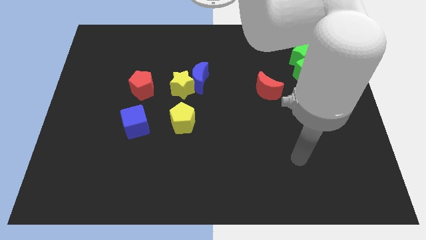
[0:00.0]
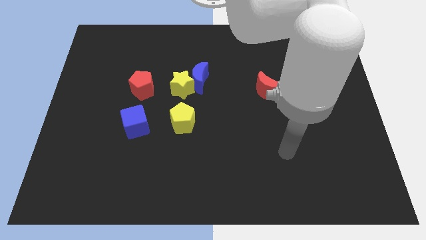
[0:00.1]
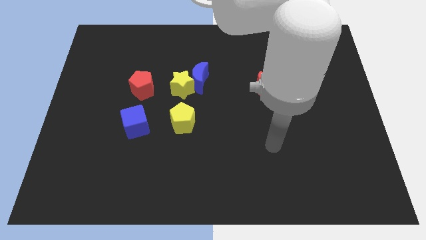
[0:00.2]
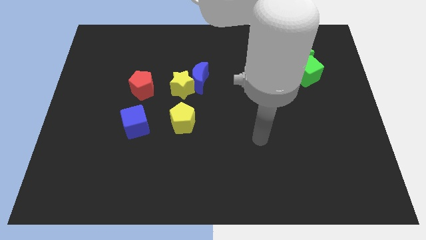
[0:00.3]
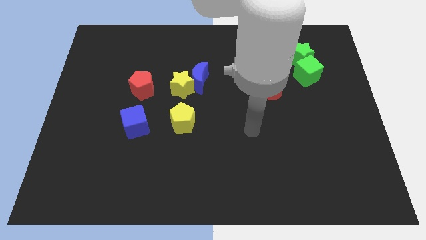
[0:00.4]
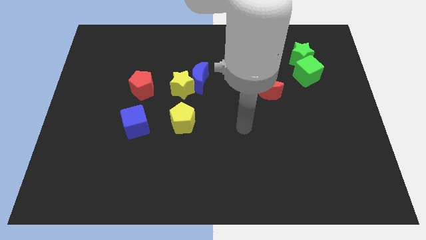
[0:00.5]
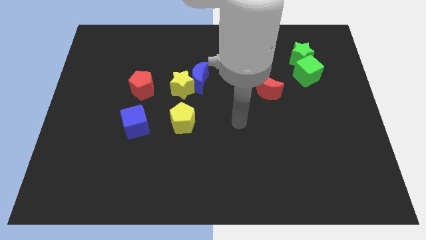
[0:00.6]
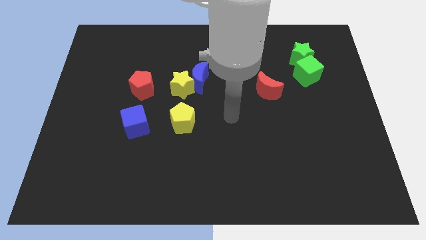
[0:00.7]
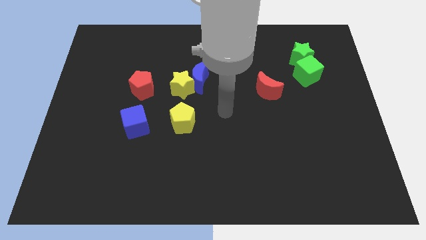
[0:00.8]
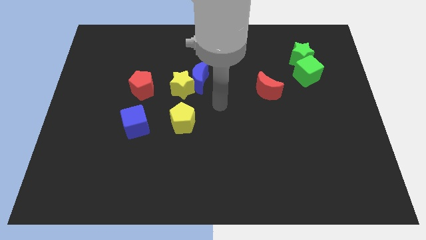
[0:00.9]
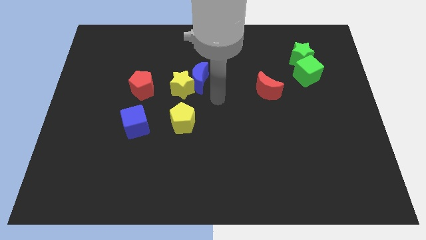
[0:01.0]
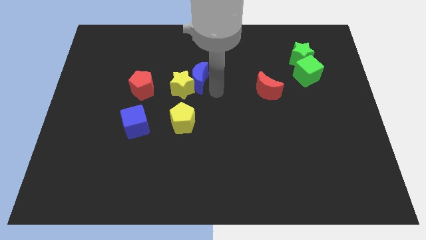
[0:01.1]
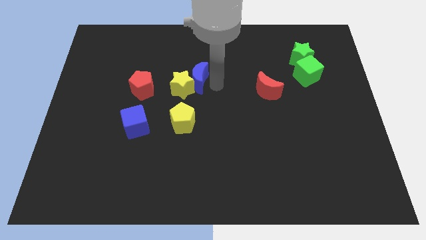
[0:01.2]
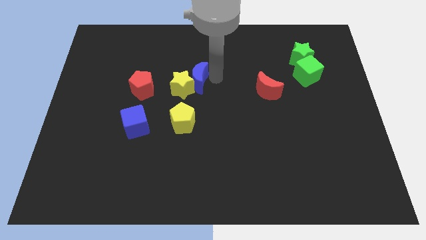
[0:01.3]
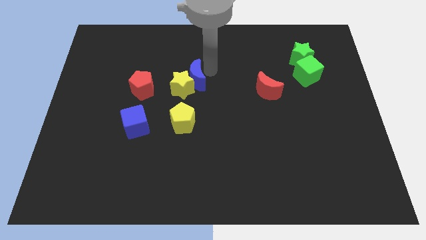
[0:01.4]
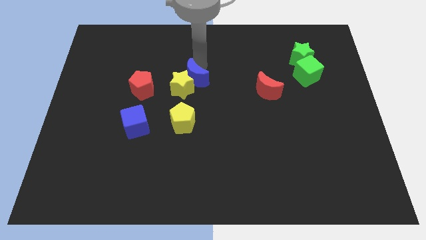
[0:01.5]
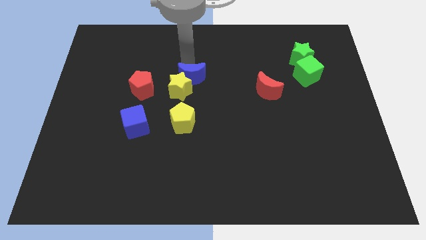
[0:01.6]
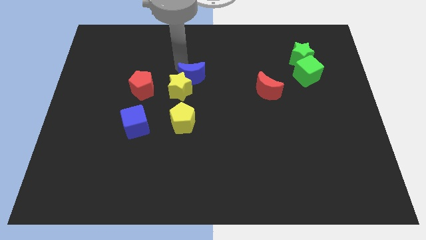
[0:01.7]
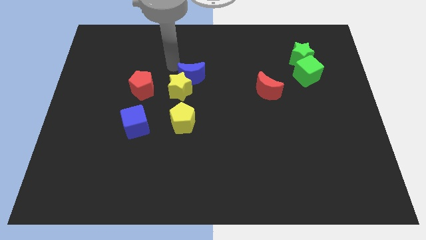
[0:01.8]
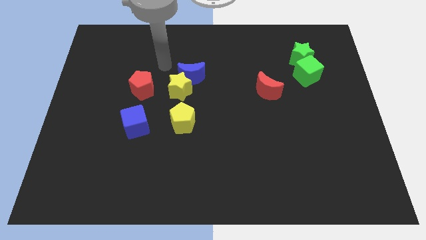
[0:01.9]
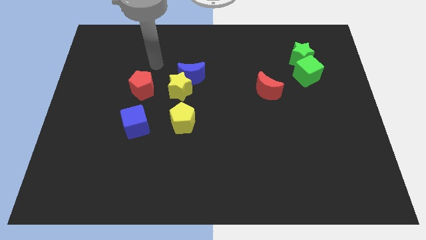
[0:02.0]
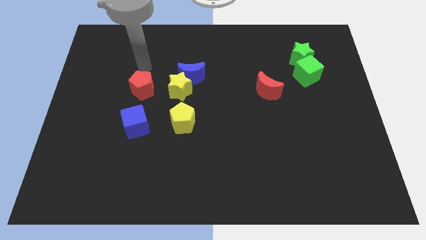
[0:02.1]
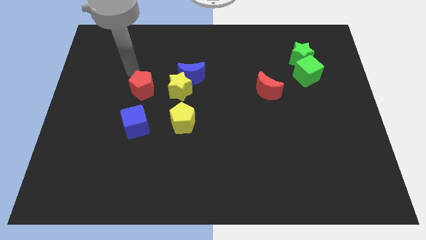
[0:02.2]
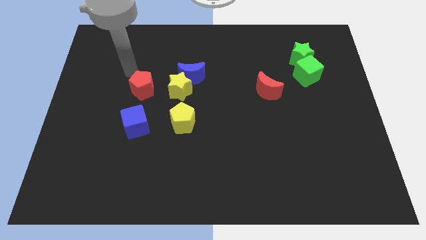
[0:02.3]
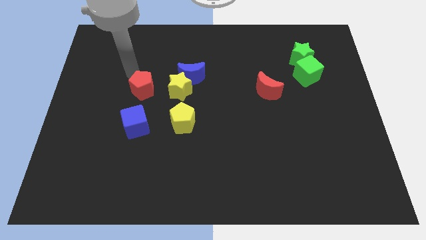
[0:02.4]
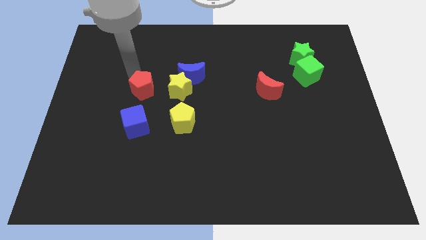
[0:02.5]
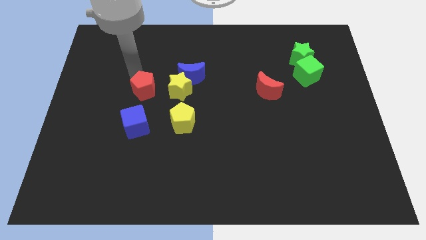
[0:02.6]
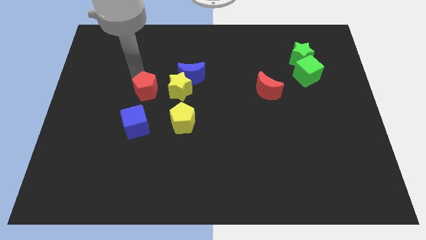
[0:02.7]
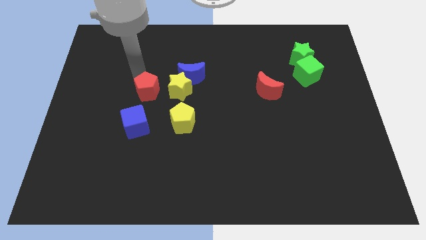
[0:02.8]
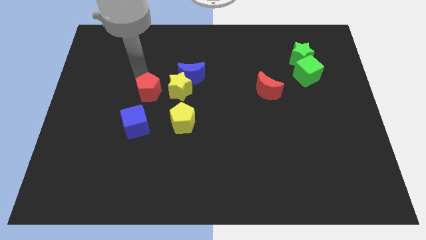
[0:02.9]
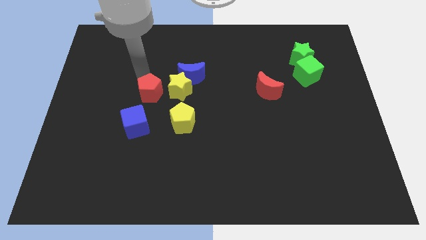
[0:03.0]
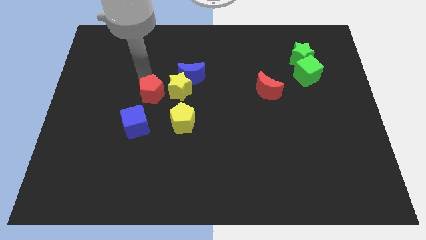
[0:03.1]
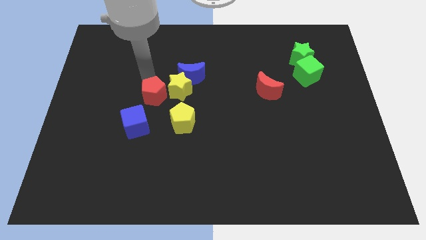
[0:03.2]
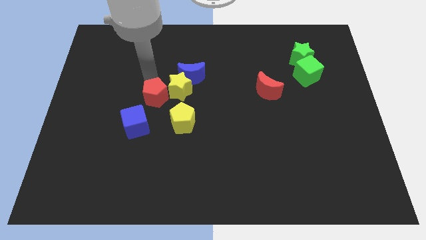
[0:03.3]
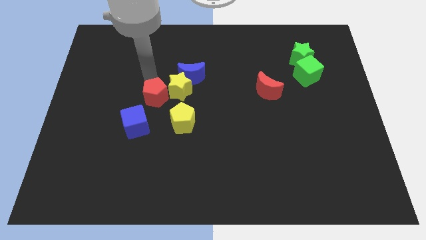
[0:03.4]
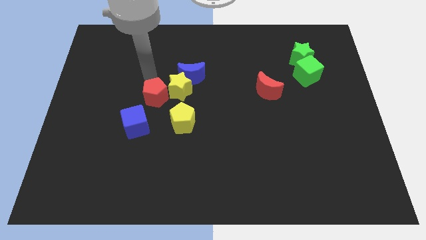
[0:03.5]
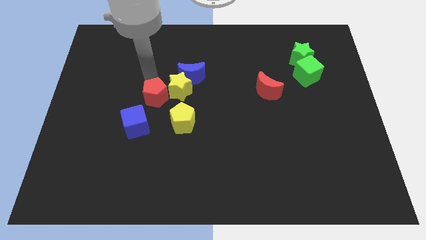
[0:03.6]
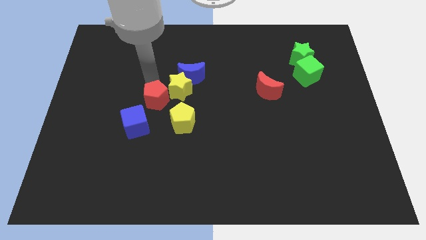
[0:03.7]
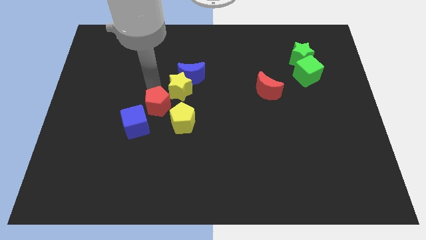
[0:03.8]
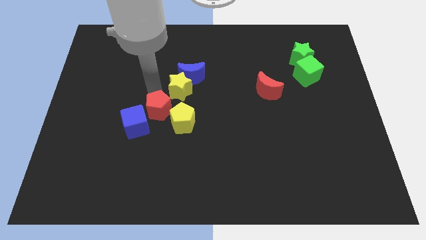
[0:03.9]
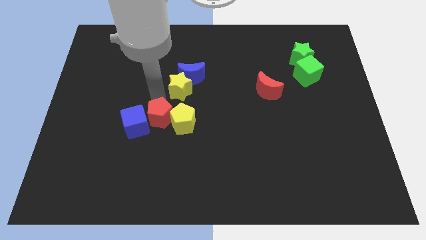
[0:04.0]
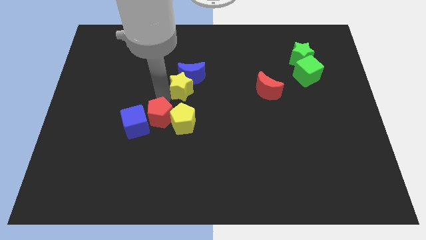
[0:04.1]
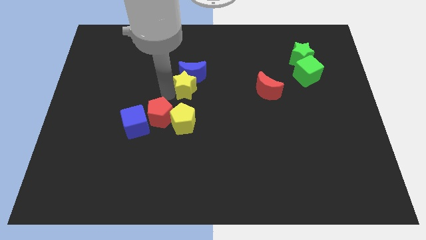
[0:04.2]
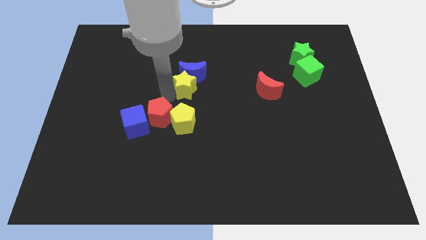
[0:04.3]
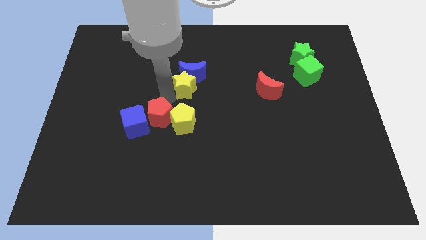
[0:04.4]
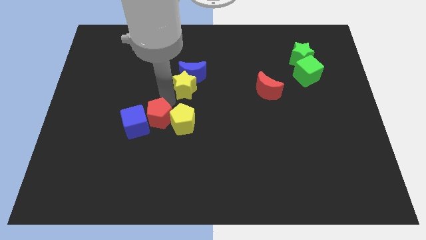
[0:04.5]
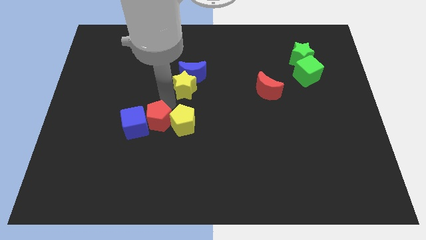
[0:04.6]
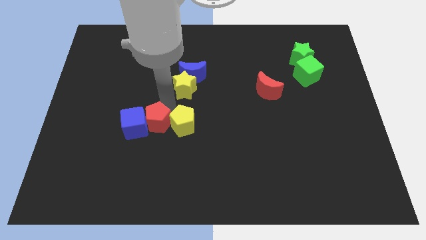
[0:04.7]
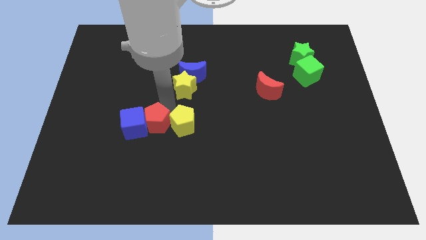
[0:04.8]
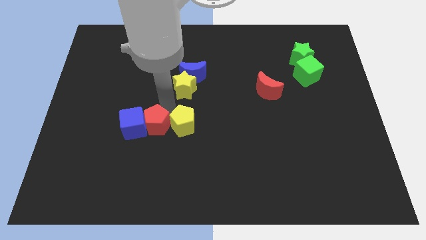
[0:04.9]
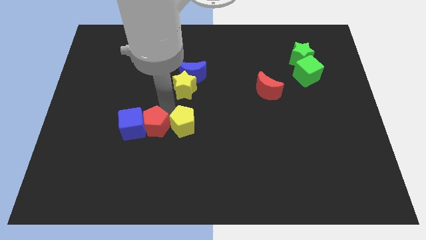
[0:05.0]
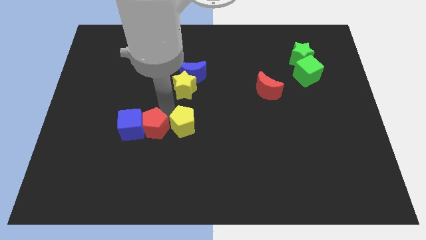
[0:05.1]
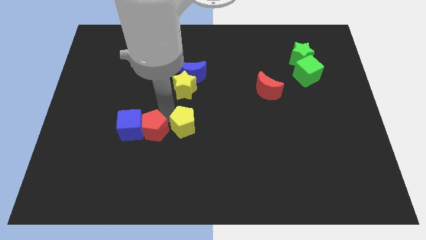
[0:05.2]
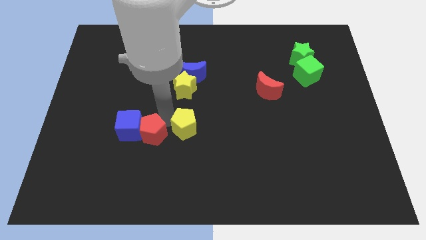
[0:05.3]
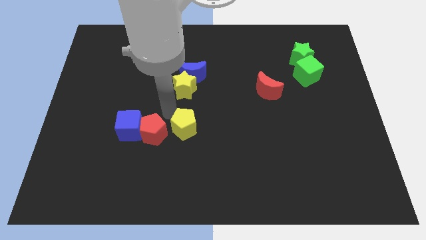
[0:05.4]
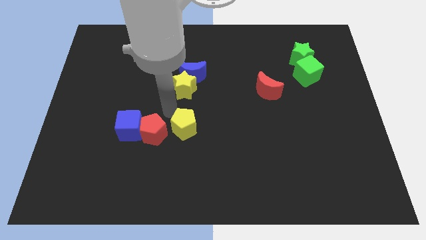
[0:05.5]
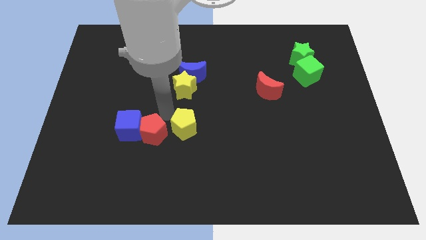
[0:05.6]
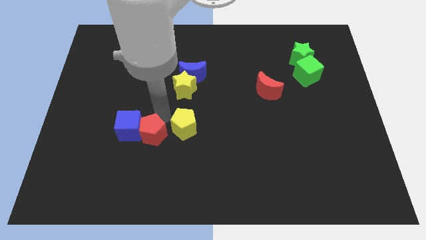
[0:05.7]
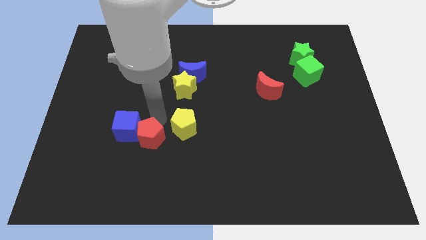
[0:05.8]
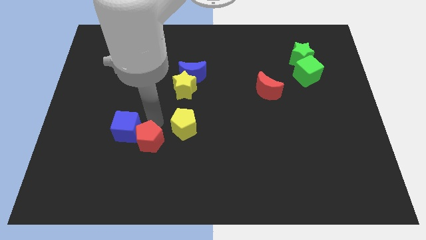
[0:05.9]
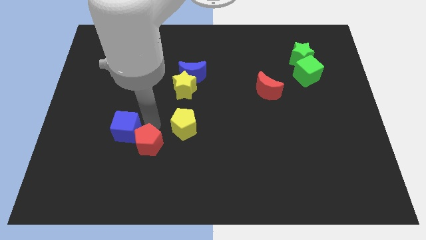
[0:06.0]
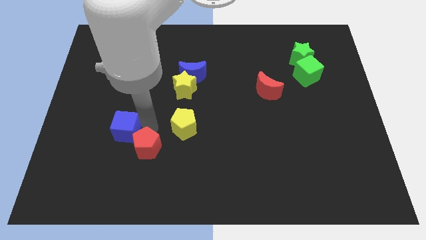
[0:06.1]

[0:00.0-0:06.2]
move the red pentagon below the blue cube
